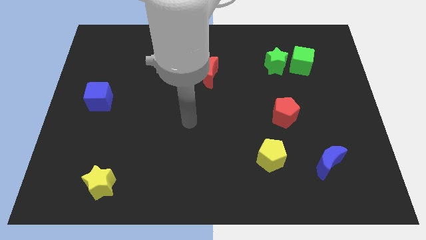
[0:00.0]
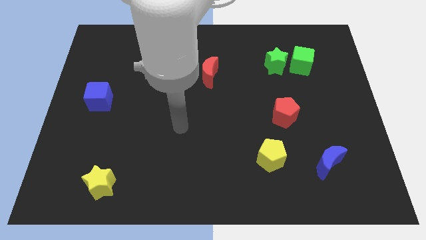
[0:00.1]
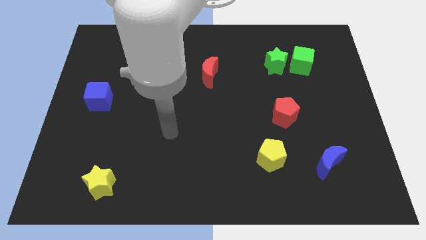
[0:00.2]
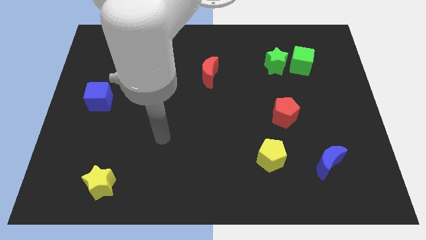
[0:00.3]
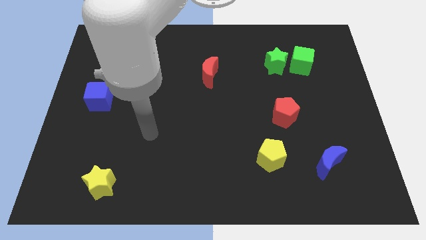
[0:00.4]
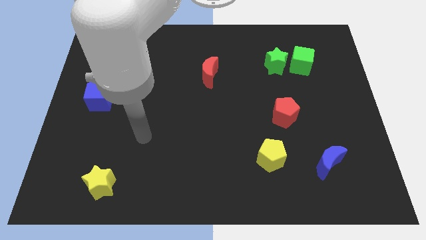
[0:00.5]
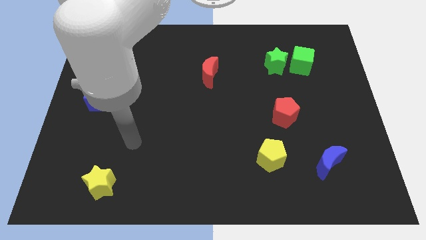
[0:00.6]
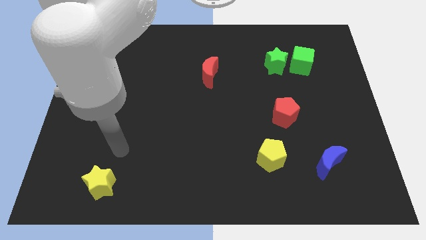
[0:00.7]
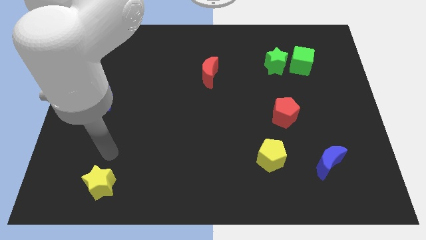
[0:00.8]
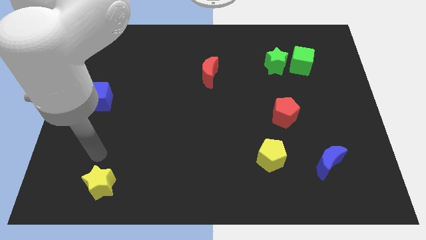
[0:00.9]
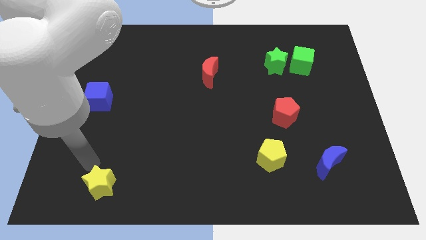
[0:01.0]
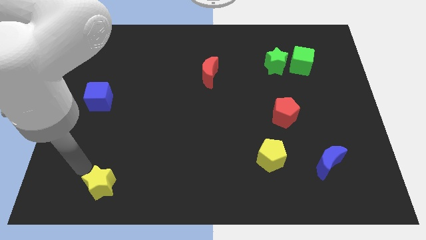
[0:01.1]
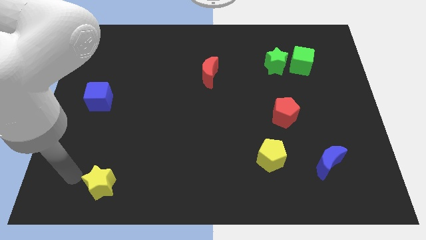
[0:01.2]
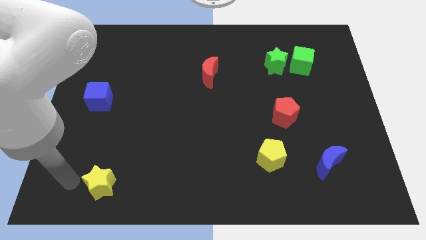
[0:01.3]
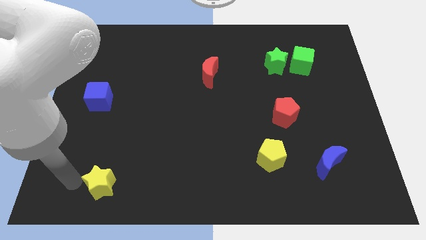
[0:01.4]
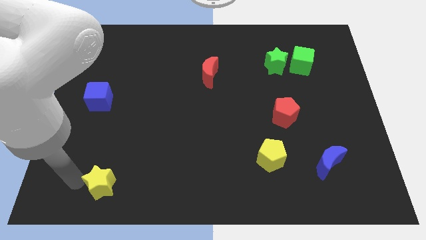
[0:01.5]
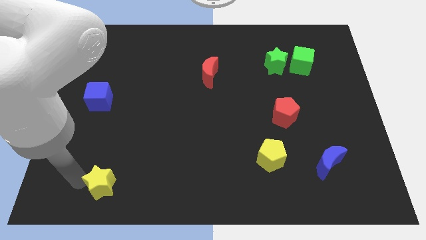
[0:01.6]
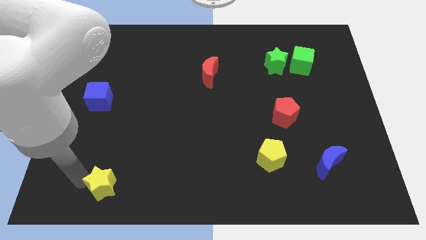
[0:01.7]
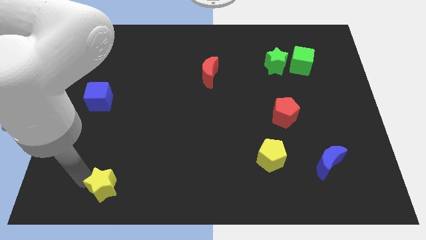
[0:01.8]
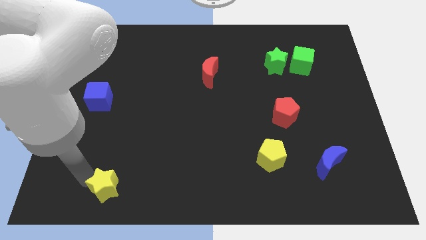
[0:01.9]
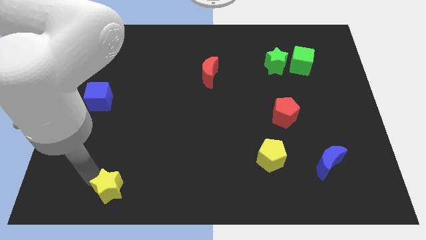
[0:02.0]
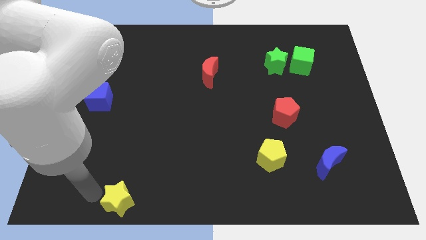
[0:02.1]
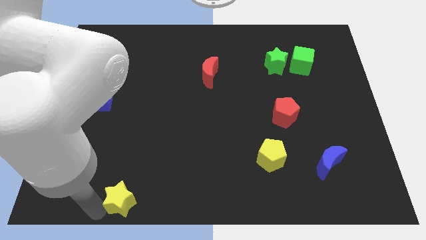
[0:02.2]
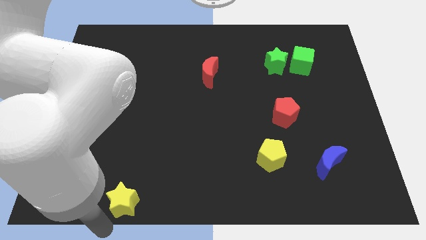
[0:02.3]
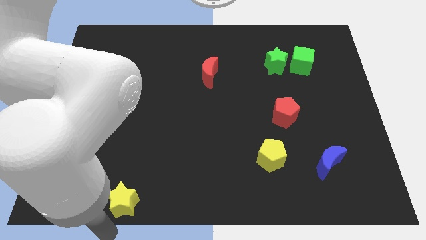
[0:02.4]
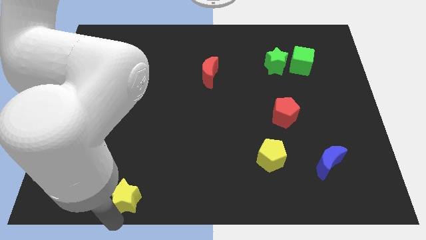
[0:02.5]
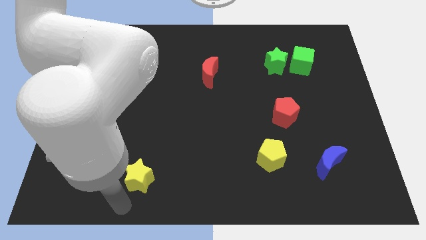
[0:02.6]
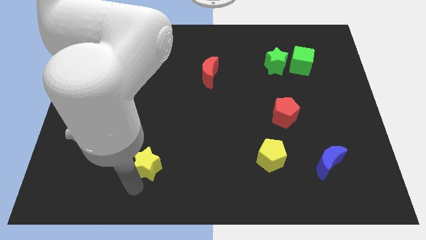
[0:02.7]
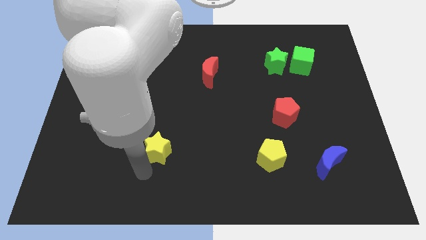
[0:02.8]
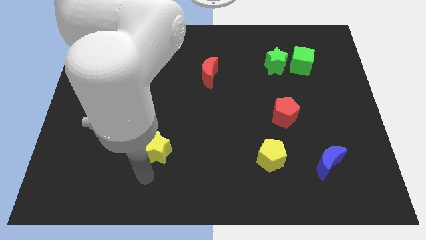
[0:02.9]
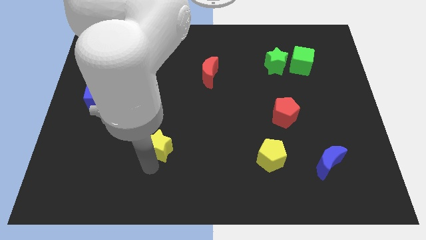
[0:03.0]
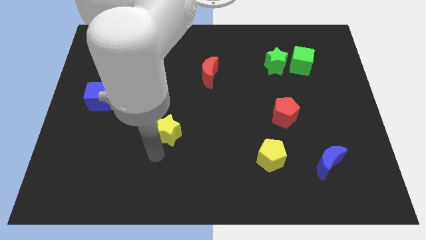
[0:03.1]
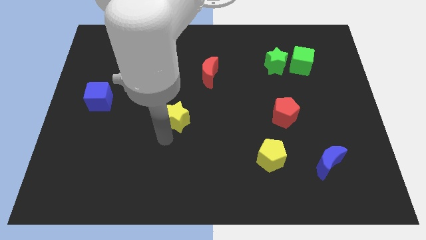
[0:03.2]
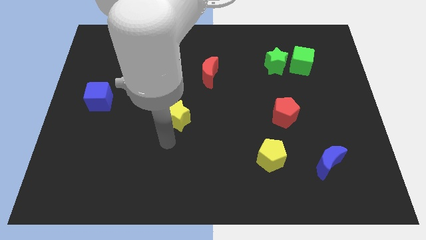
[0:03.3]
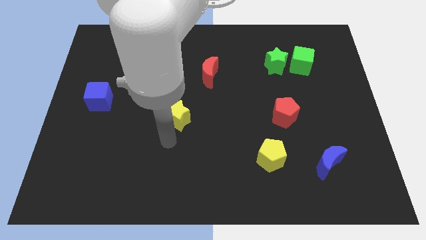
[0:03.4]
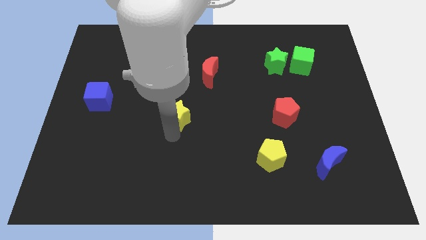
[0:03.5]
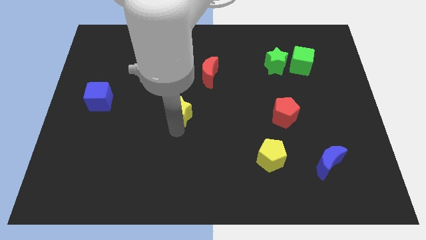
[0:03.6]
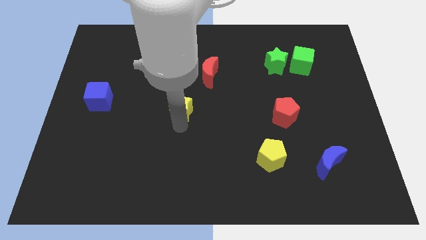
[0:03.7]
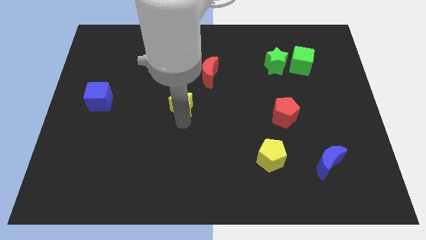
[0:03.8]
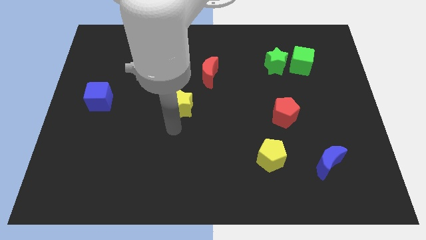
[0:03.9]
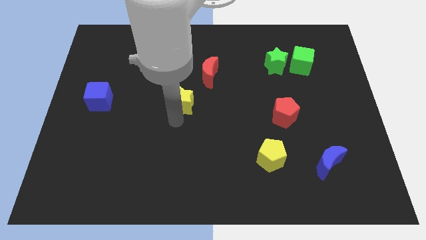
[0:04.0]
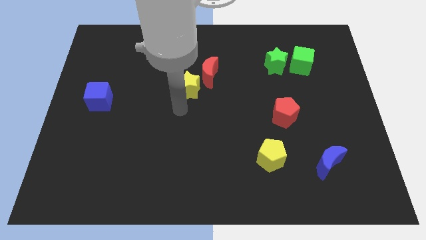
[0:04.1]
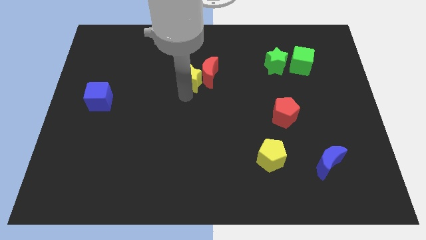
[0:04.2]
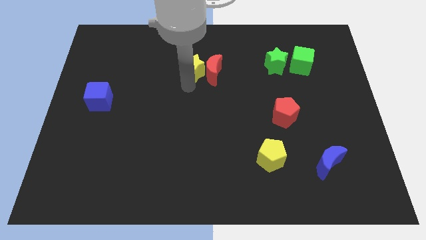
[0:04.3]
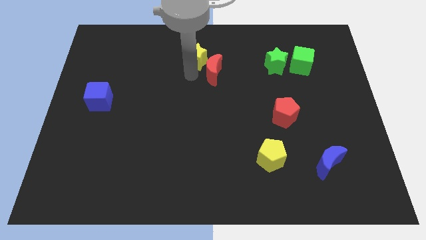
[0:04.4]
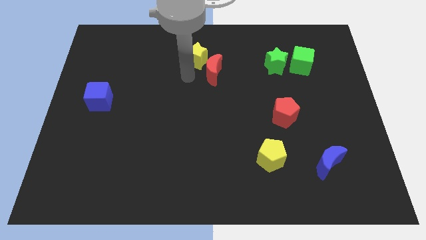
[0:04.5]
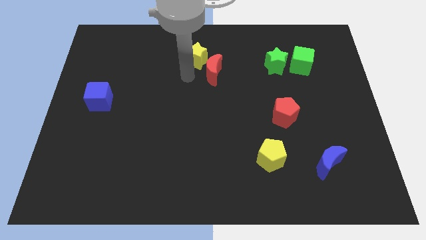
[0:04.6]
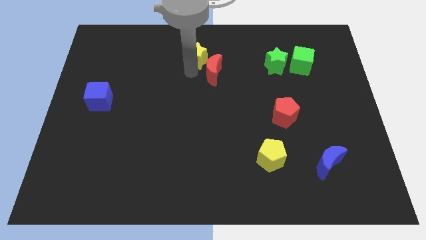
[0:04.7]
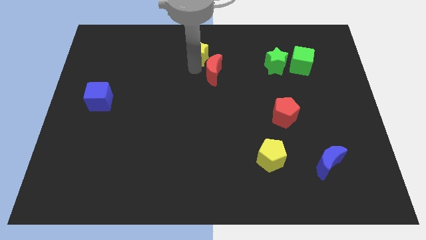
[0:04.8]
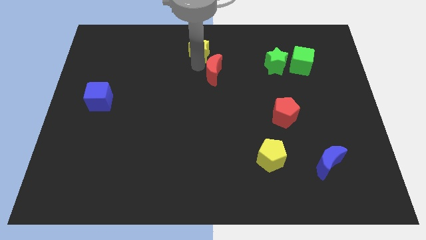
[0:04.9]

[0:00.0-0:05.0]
put the yellow star to the top side

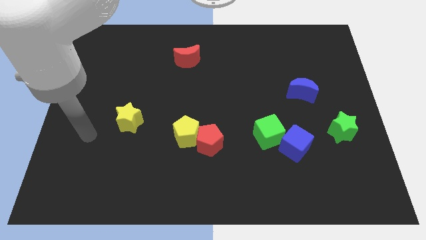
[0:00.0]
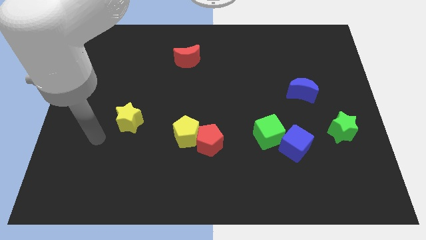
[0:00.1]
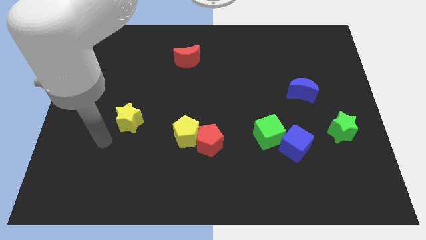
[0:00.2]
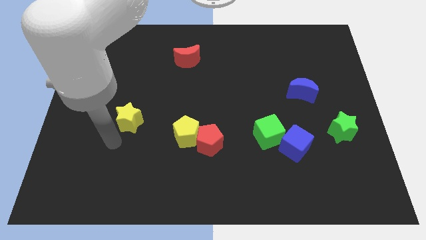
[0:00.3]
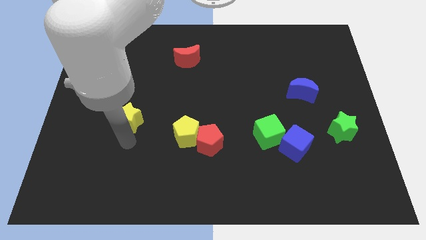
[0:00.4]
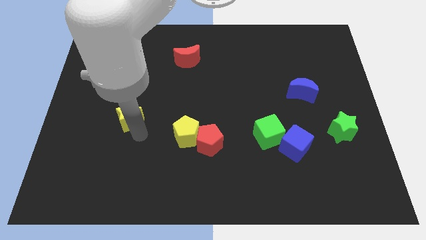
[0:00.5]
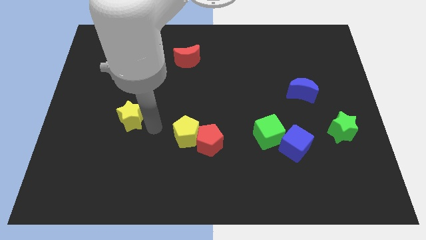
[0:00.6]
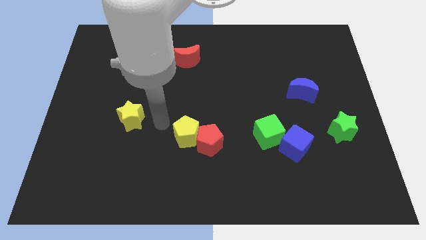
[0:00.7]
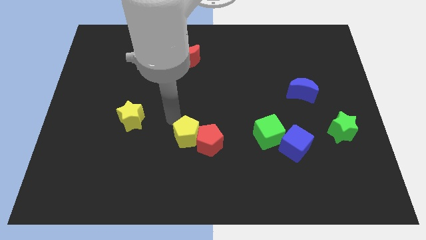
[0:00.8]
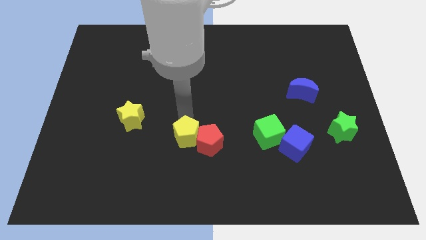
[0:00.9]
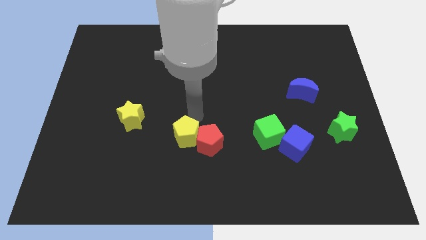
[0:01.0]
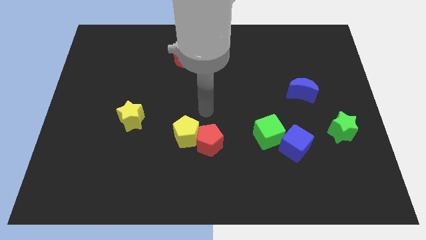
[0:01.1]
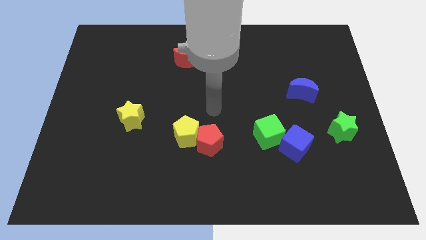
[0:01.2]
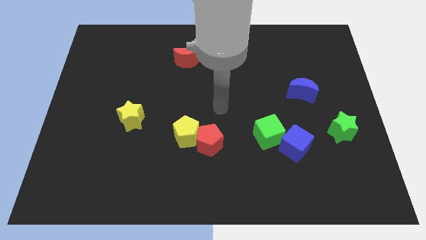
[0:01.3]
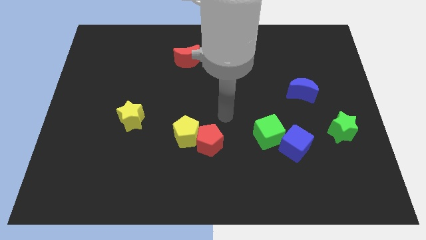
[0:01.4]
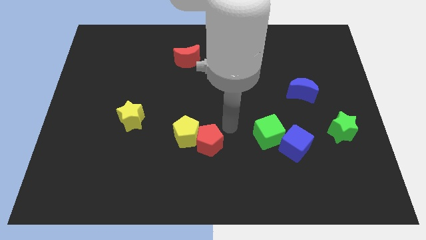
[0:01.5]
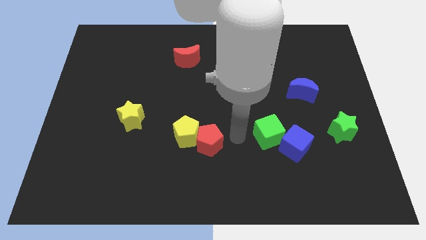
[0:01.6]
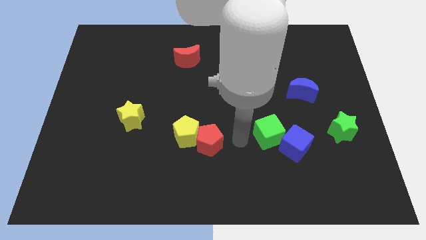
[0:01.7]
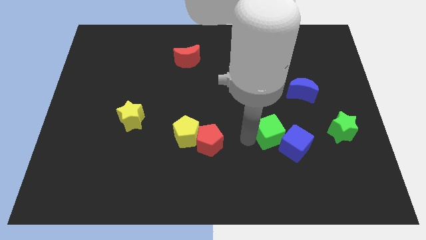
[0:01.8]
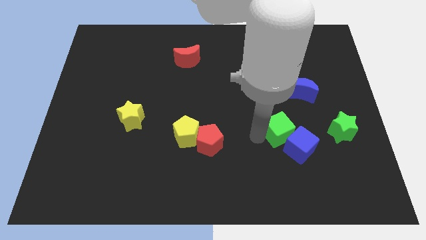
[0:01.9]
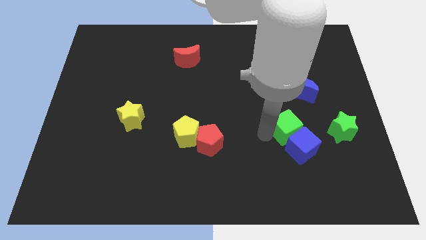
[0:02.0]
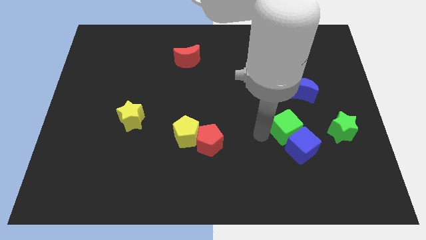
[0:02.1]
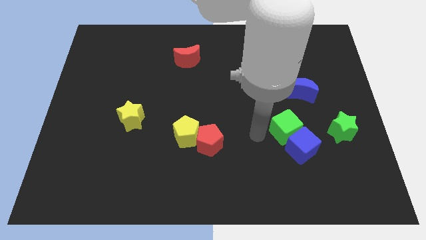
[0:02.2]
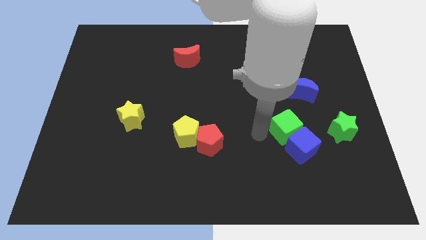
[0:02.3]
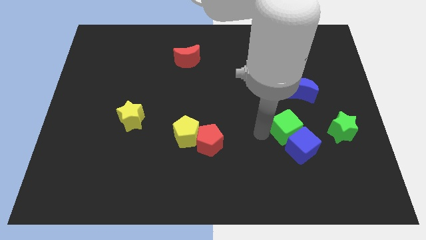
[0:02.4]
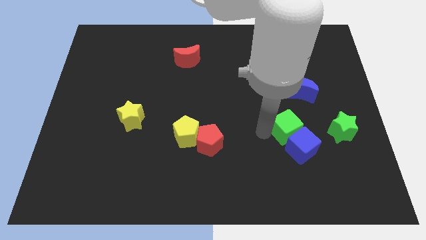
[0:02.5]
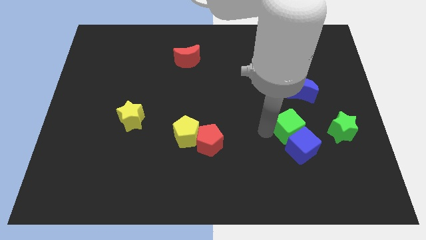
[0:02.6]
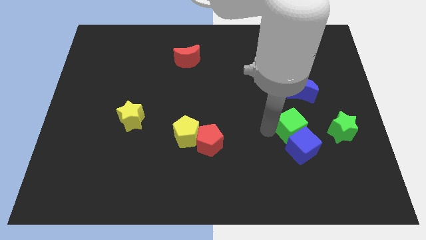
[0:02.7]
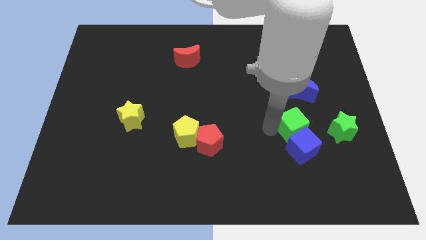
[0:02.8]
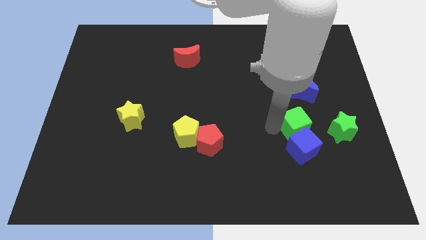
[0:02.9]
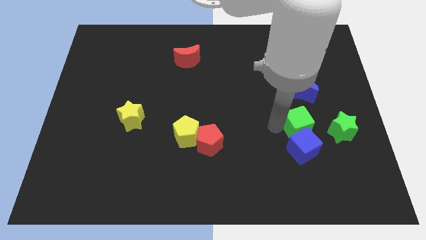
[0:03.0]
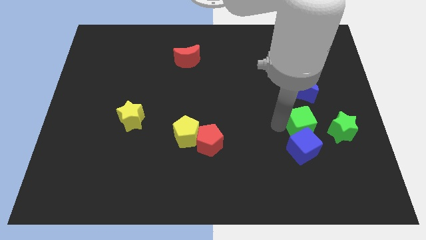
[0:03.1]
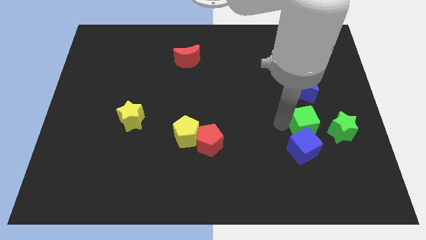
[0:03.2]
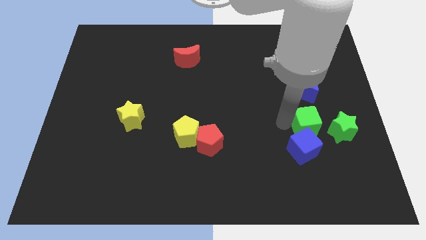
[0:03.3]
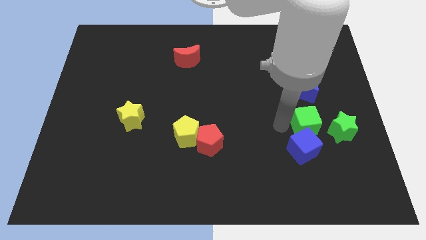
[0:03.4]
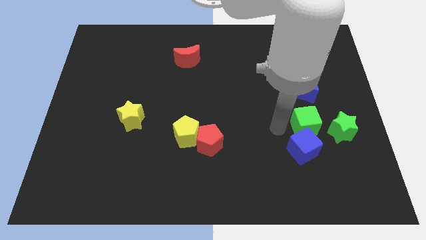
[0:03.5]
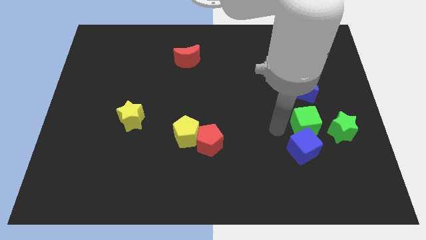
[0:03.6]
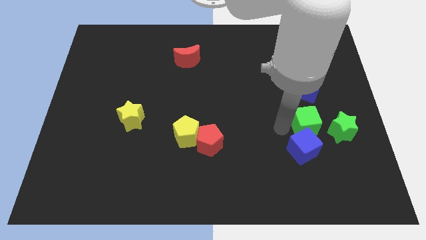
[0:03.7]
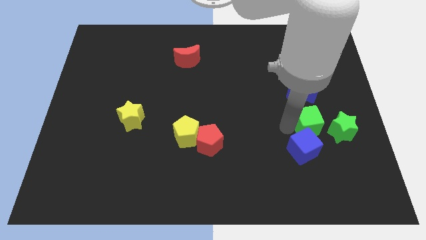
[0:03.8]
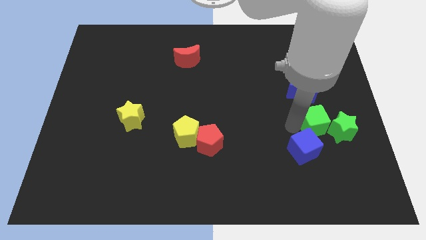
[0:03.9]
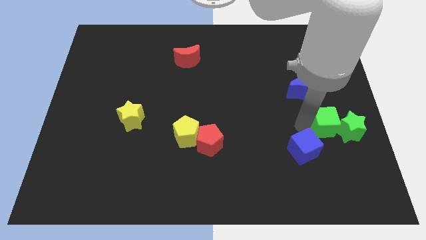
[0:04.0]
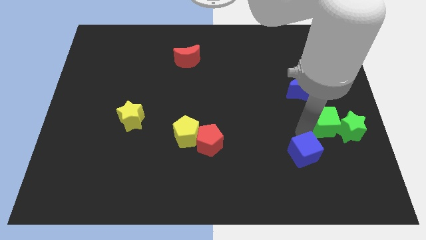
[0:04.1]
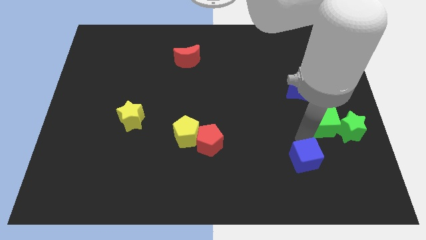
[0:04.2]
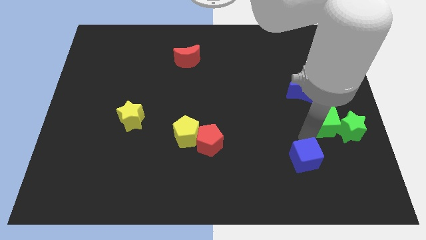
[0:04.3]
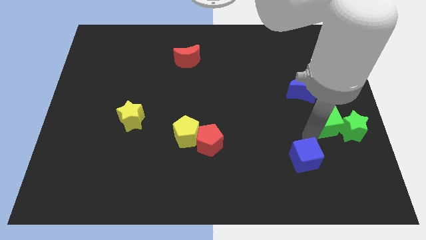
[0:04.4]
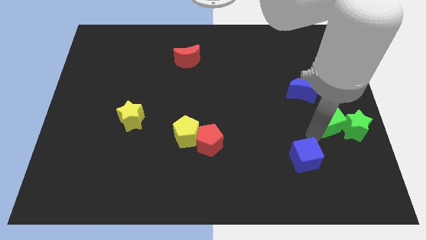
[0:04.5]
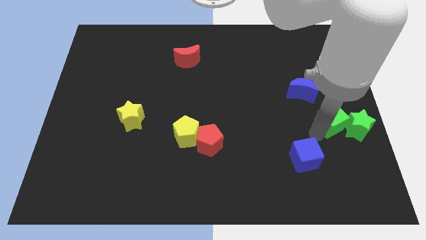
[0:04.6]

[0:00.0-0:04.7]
push the green cube to the right side of the board
